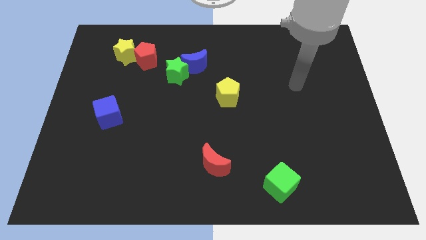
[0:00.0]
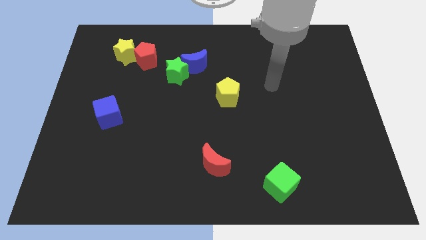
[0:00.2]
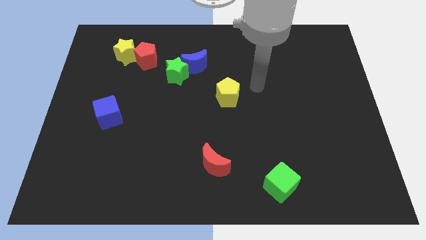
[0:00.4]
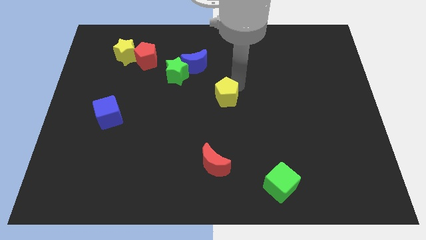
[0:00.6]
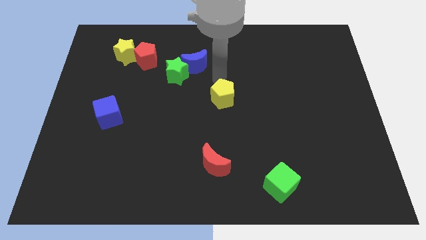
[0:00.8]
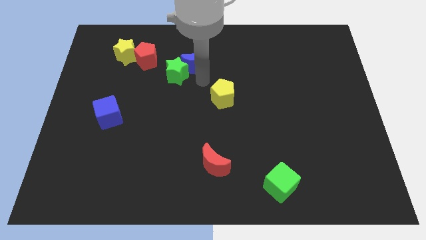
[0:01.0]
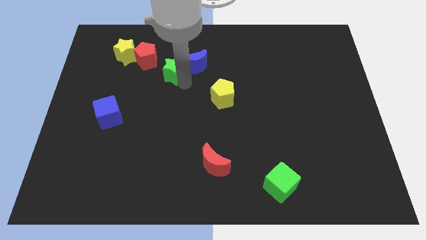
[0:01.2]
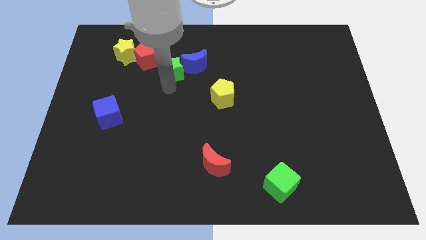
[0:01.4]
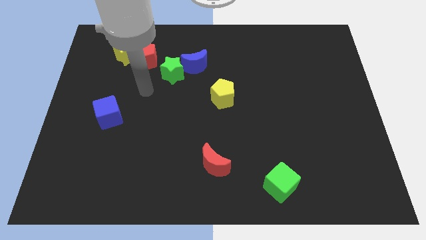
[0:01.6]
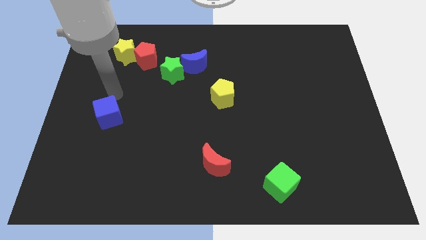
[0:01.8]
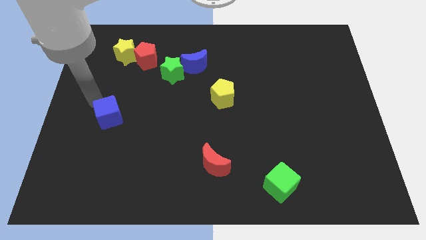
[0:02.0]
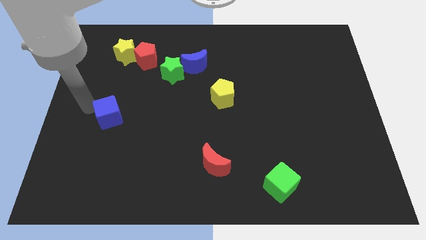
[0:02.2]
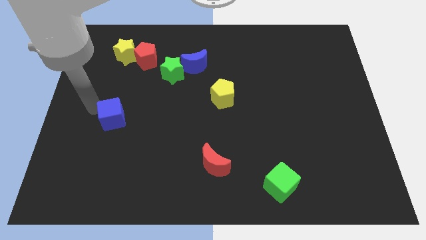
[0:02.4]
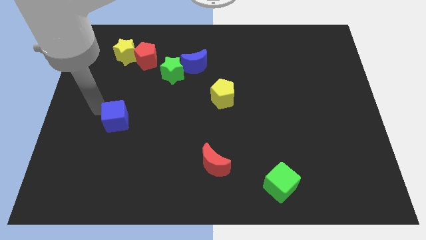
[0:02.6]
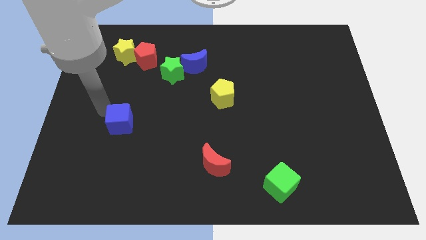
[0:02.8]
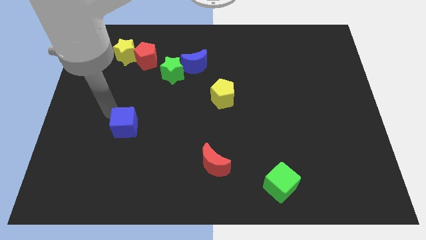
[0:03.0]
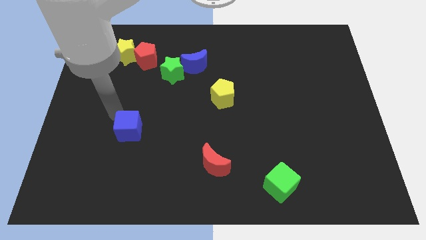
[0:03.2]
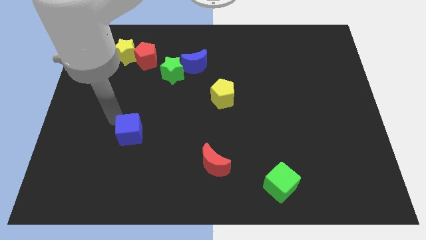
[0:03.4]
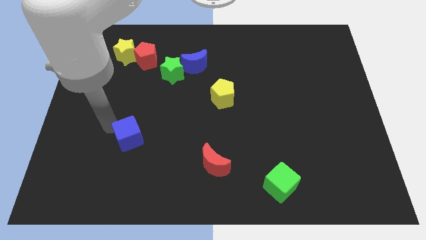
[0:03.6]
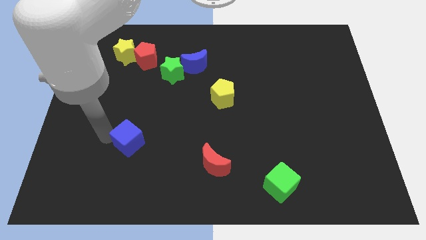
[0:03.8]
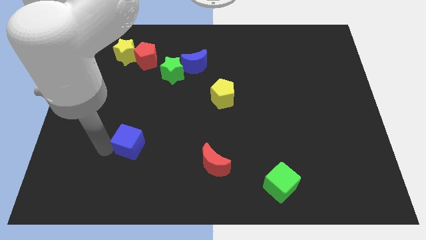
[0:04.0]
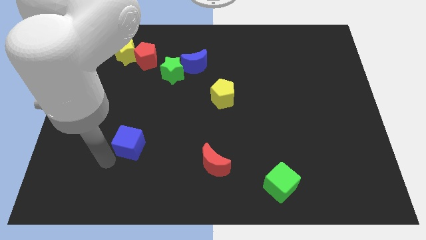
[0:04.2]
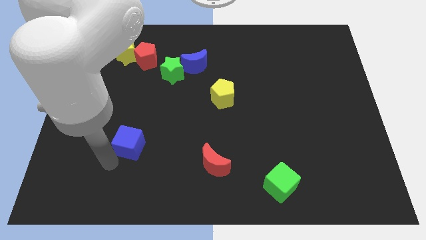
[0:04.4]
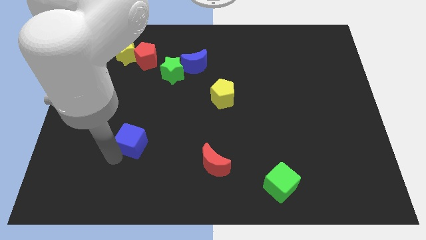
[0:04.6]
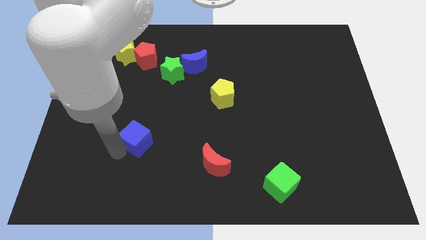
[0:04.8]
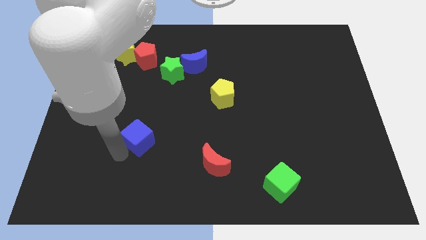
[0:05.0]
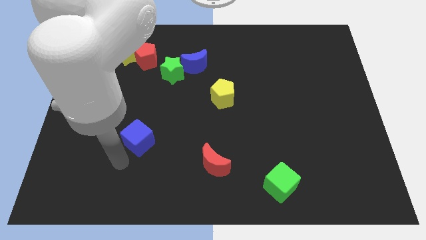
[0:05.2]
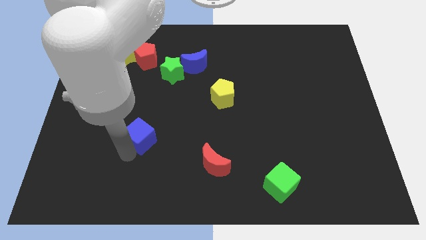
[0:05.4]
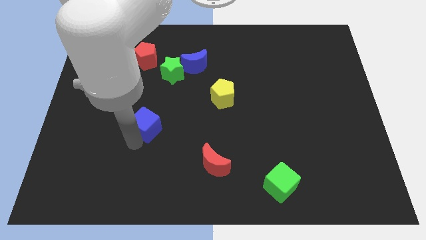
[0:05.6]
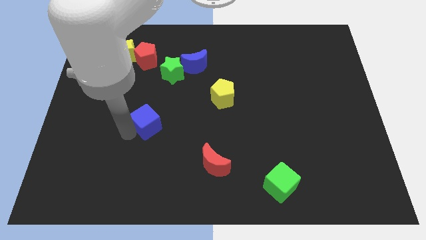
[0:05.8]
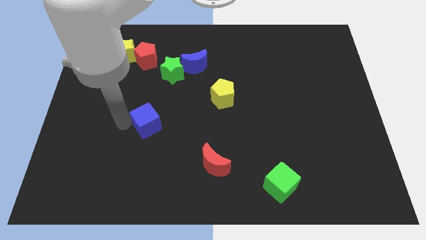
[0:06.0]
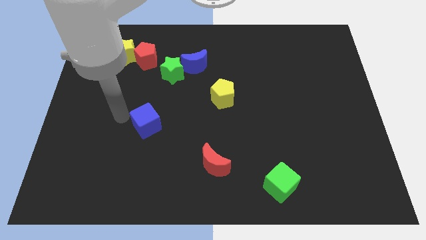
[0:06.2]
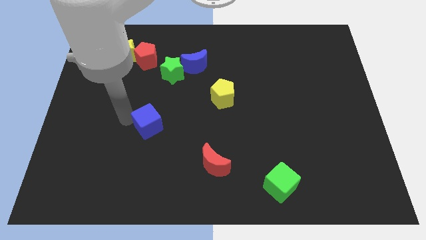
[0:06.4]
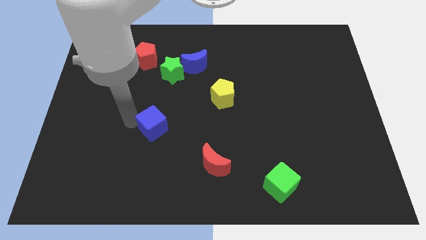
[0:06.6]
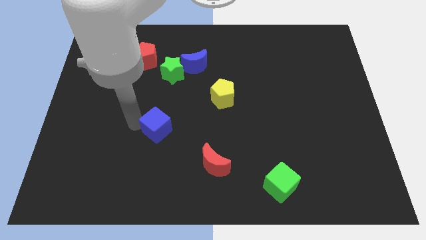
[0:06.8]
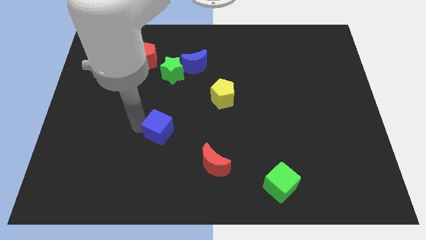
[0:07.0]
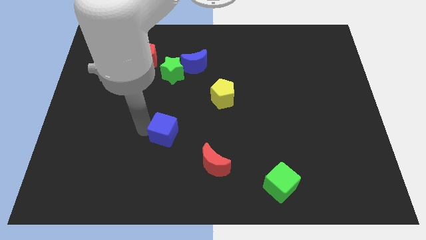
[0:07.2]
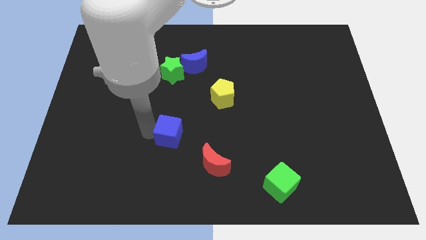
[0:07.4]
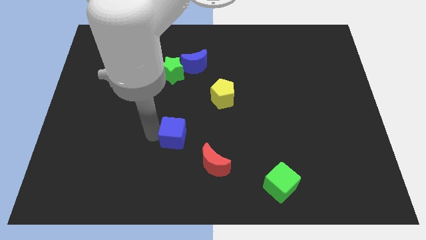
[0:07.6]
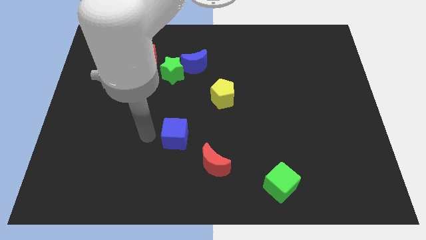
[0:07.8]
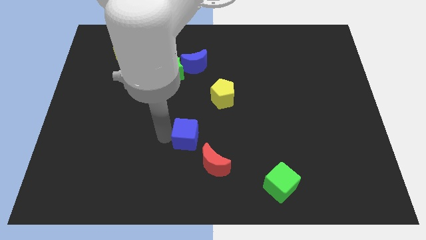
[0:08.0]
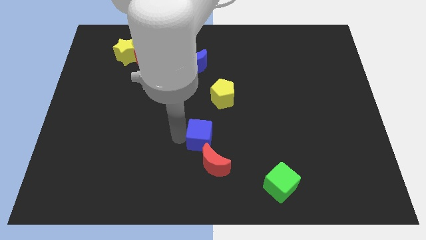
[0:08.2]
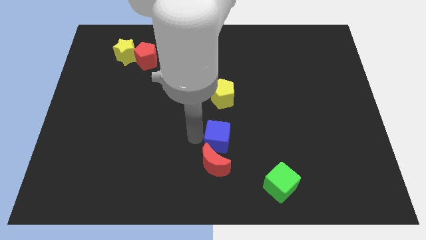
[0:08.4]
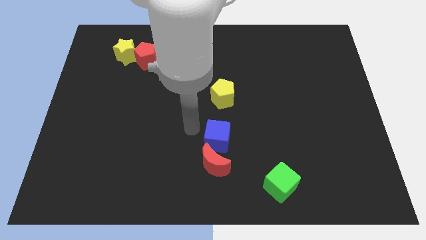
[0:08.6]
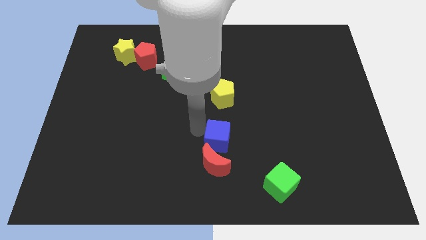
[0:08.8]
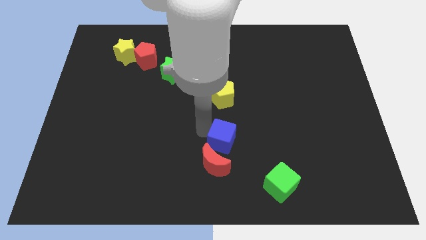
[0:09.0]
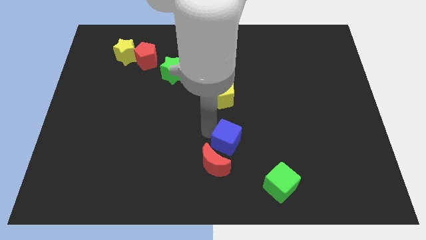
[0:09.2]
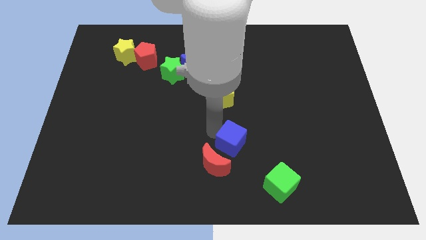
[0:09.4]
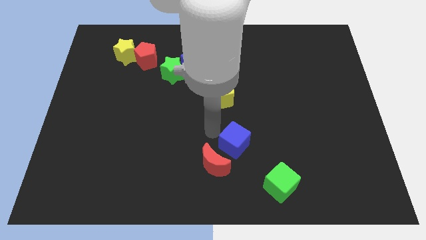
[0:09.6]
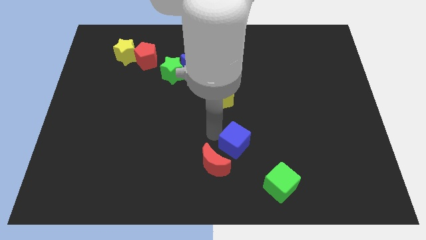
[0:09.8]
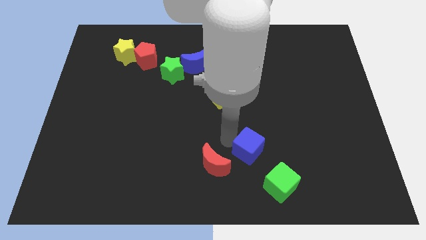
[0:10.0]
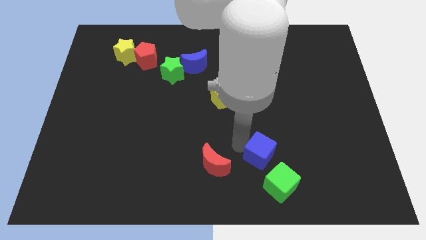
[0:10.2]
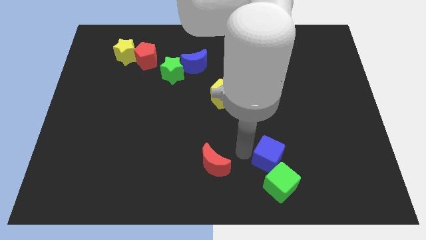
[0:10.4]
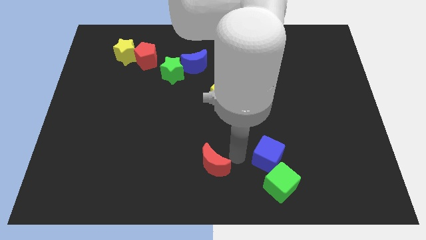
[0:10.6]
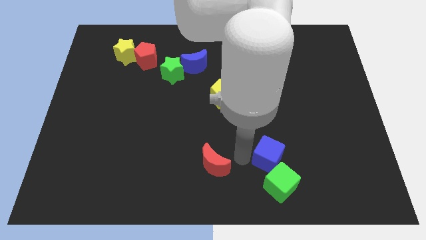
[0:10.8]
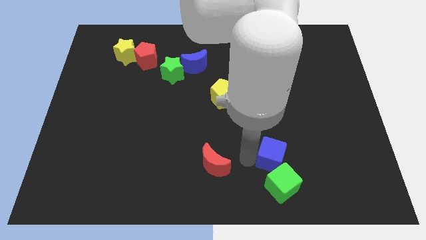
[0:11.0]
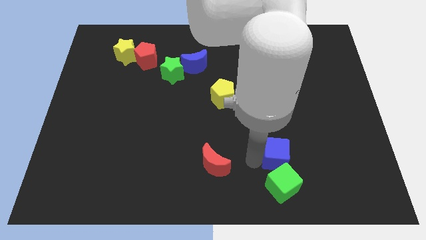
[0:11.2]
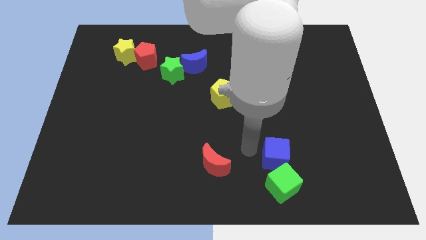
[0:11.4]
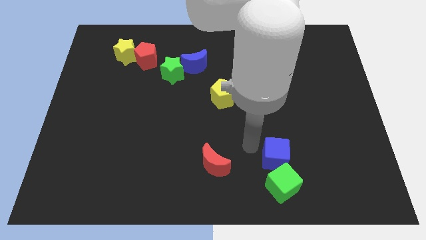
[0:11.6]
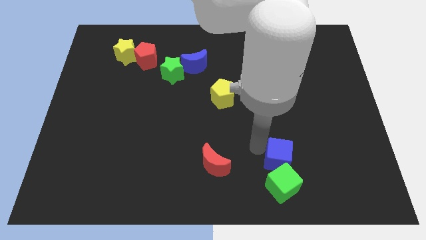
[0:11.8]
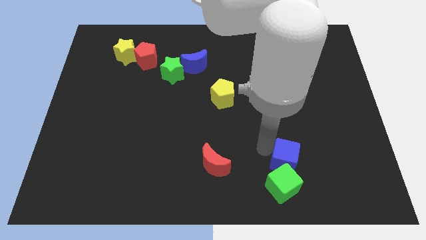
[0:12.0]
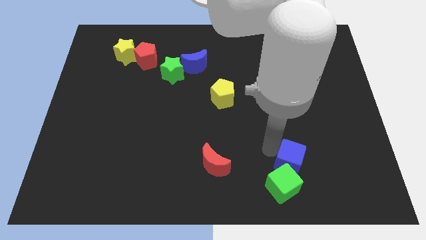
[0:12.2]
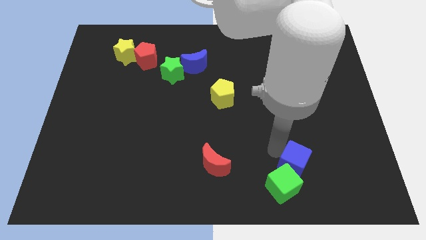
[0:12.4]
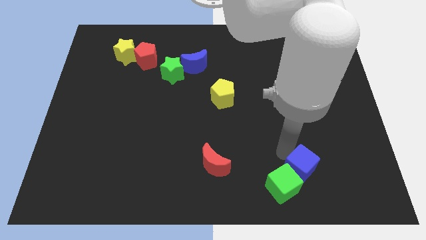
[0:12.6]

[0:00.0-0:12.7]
slide the blue cube right of the green cube

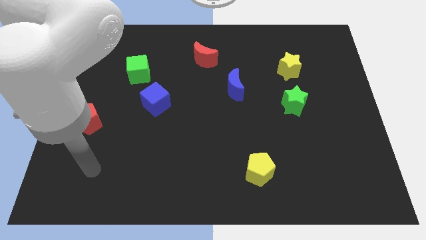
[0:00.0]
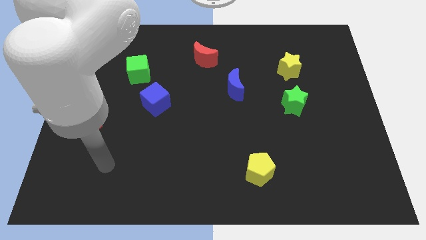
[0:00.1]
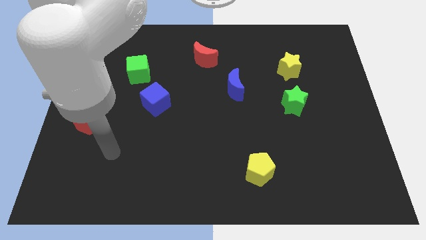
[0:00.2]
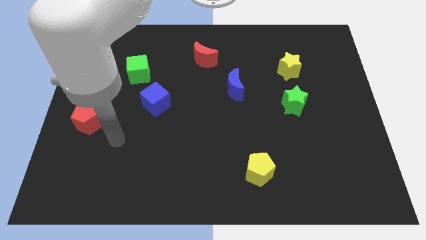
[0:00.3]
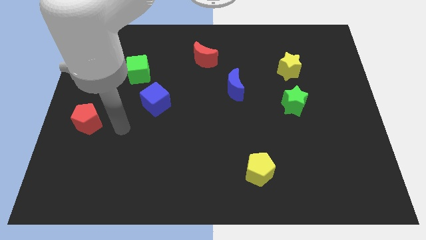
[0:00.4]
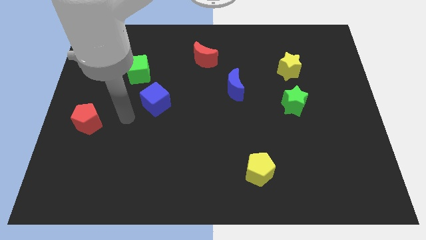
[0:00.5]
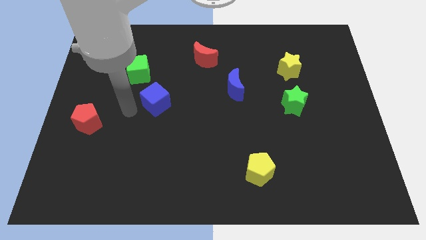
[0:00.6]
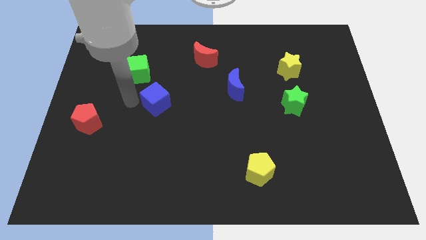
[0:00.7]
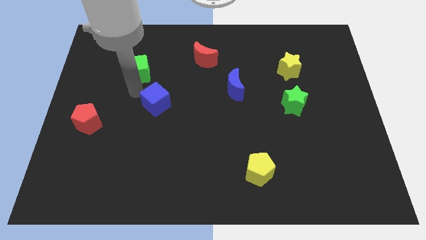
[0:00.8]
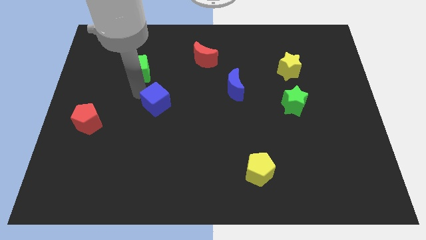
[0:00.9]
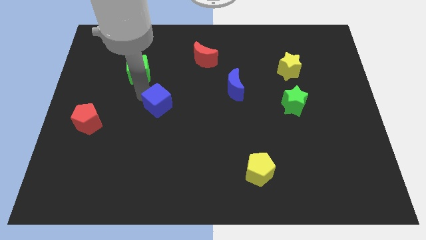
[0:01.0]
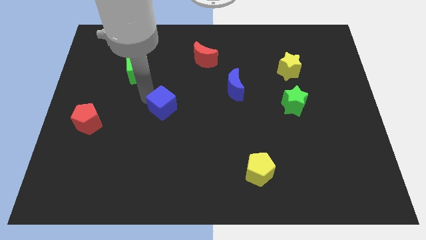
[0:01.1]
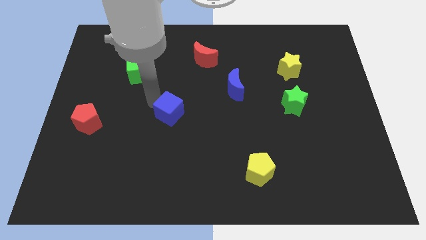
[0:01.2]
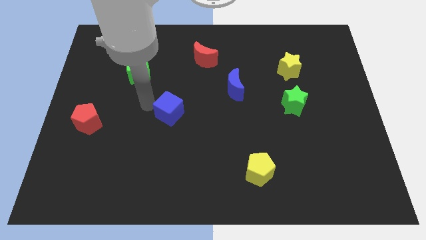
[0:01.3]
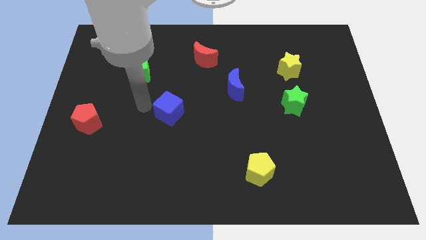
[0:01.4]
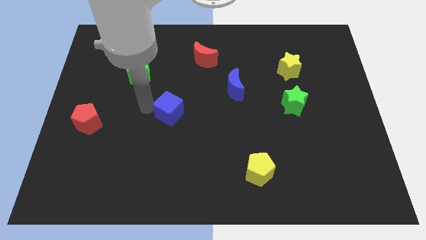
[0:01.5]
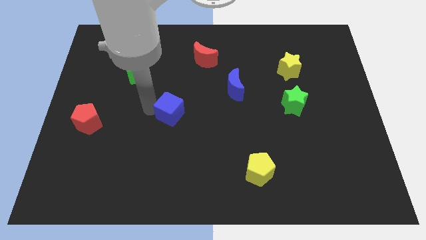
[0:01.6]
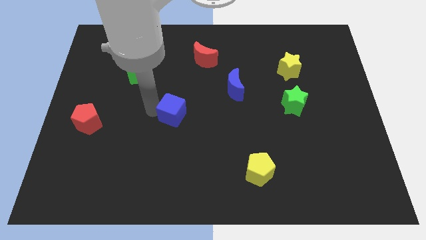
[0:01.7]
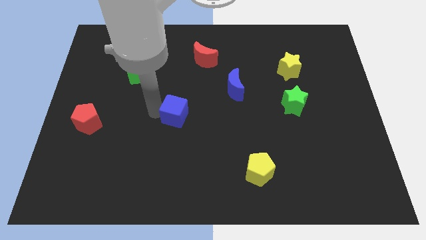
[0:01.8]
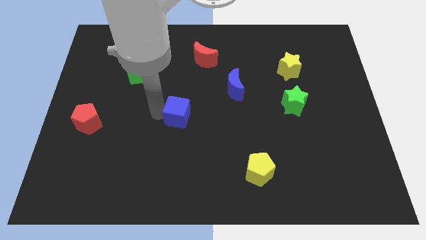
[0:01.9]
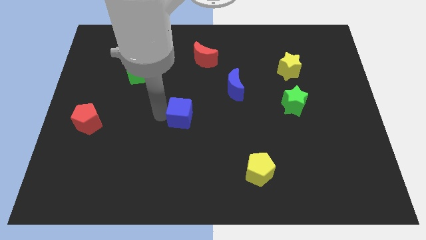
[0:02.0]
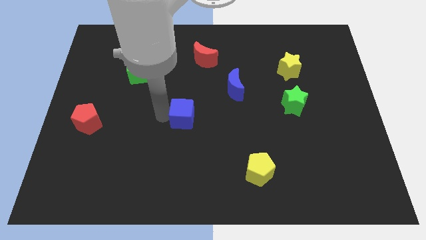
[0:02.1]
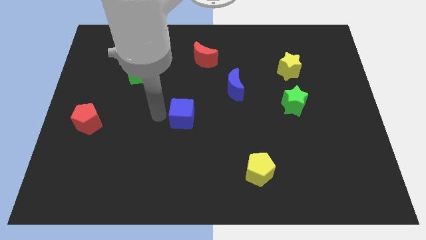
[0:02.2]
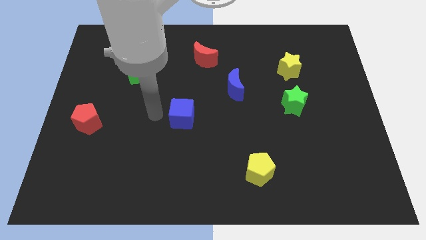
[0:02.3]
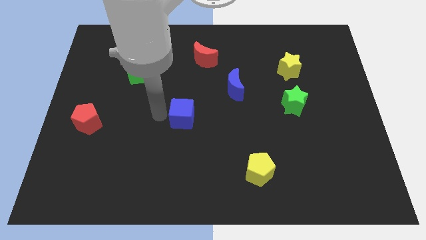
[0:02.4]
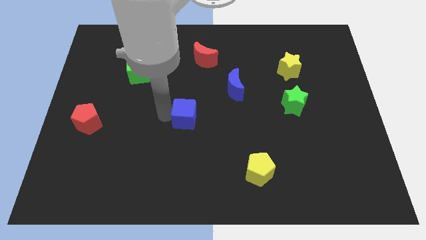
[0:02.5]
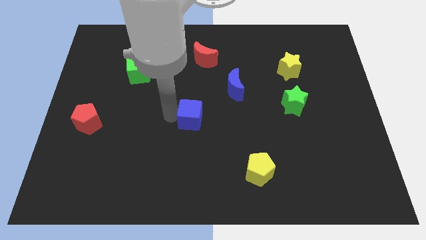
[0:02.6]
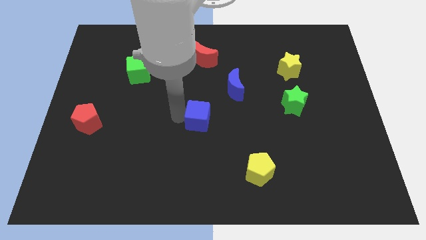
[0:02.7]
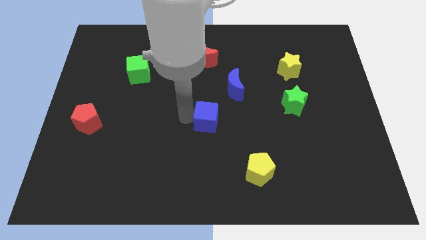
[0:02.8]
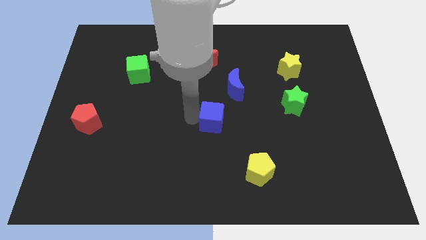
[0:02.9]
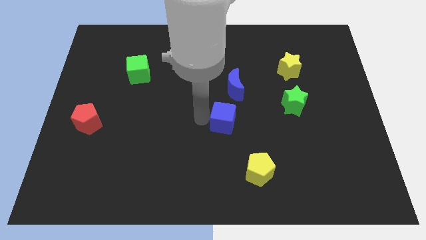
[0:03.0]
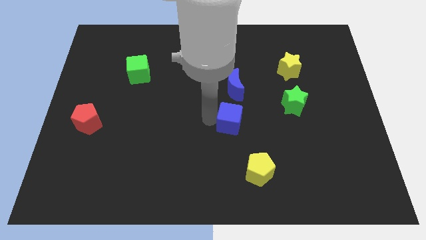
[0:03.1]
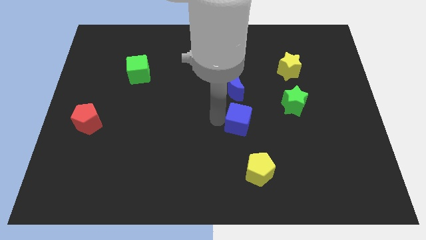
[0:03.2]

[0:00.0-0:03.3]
slide the blue cube to the top of the yellow pentagon
